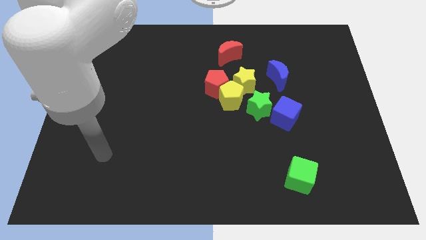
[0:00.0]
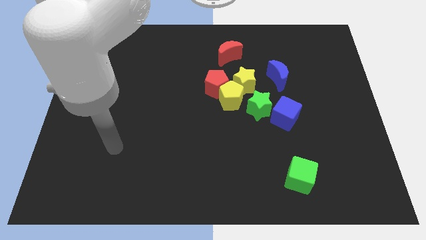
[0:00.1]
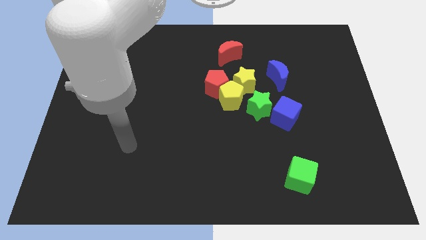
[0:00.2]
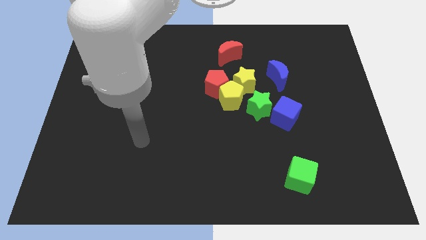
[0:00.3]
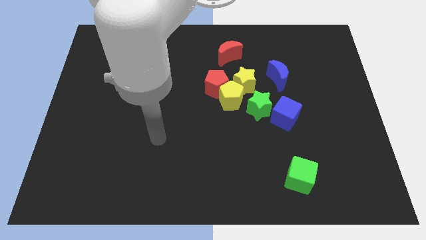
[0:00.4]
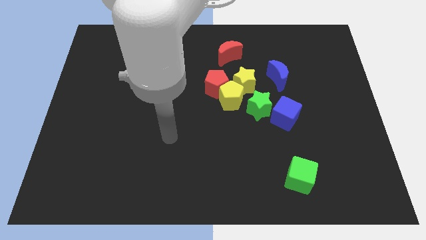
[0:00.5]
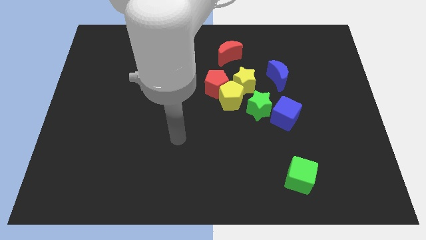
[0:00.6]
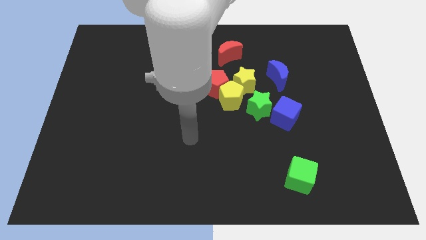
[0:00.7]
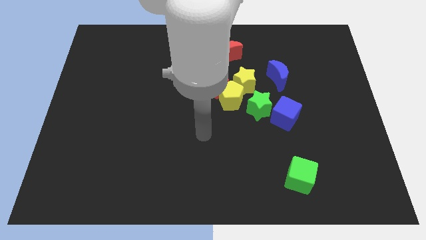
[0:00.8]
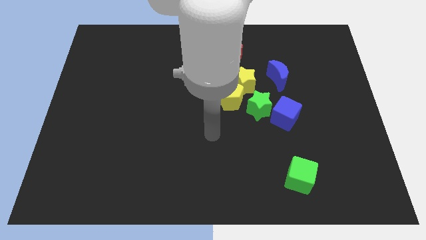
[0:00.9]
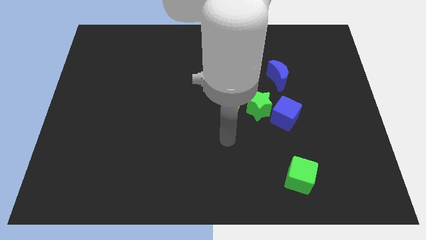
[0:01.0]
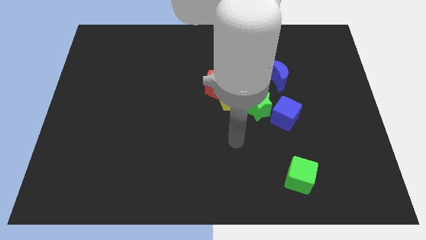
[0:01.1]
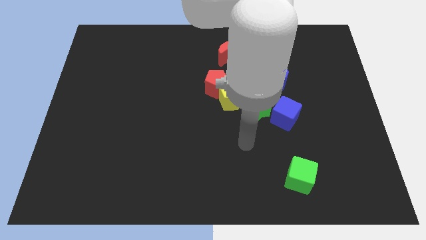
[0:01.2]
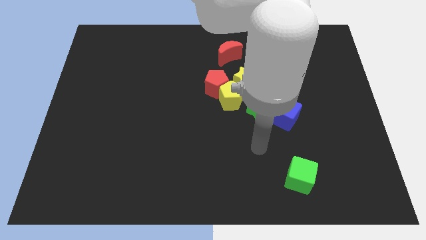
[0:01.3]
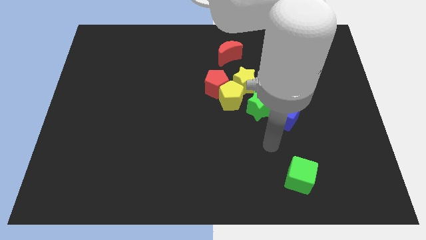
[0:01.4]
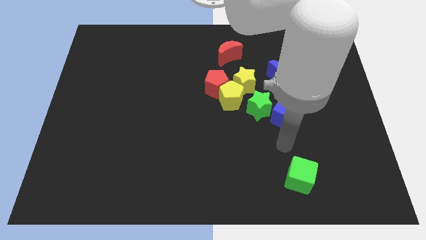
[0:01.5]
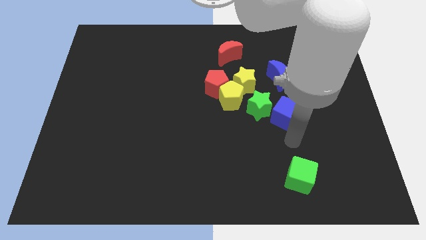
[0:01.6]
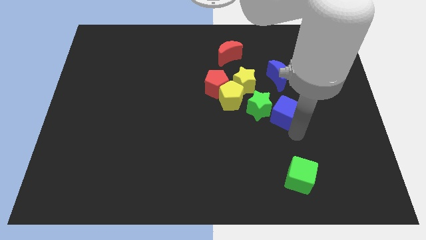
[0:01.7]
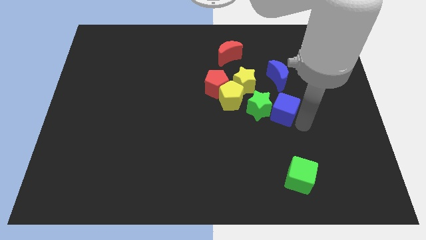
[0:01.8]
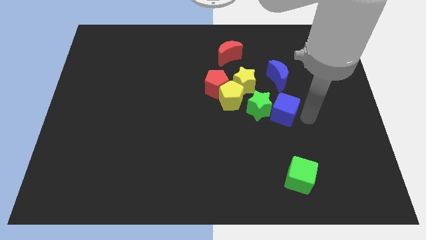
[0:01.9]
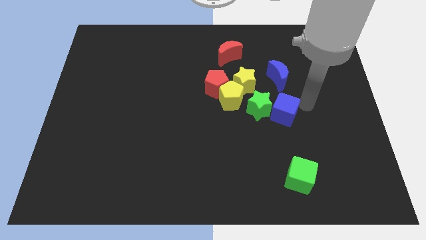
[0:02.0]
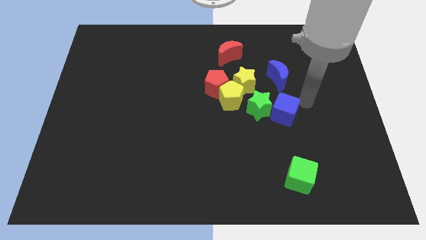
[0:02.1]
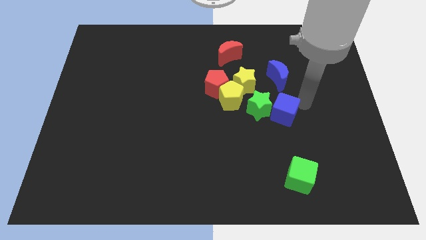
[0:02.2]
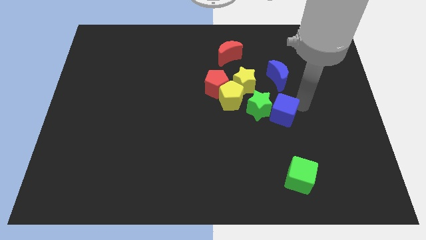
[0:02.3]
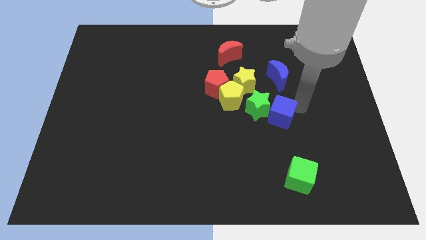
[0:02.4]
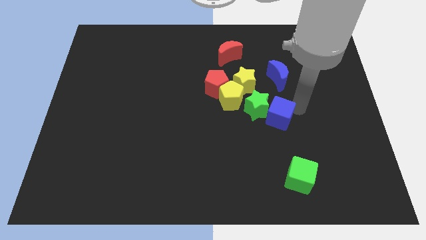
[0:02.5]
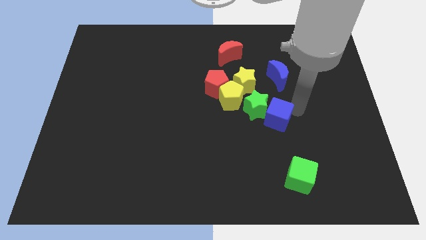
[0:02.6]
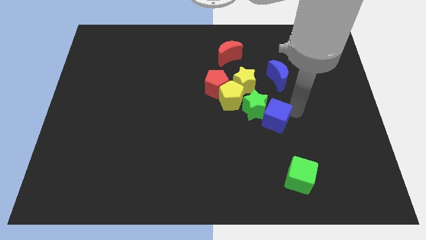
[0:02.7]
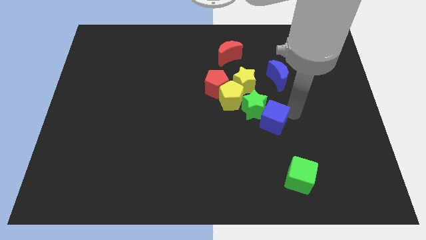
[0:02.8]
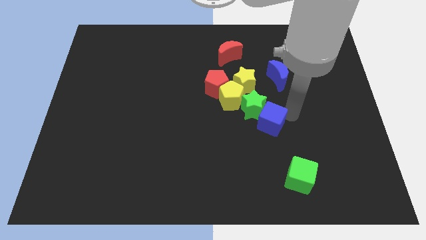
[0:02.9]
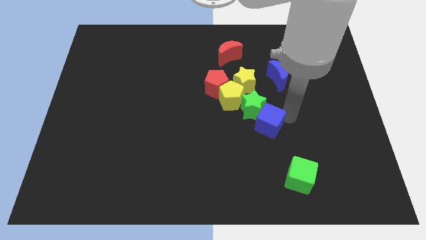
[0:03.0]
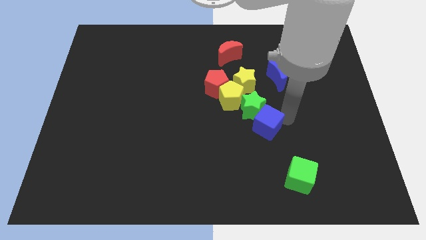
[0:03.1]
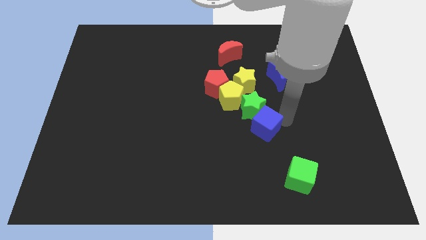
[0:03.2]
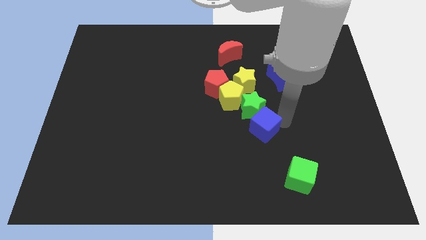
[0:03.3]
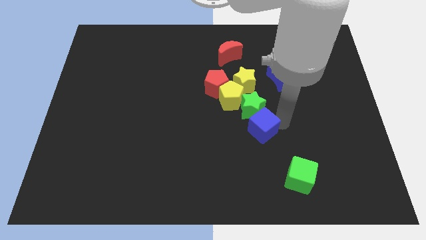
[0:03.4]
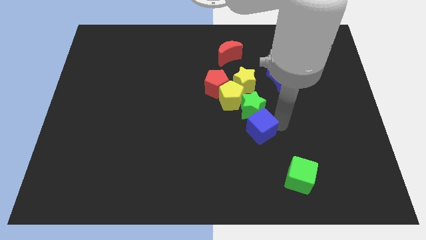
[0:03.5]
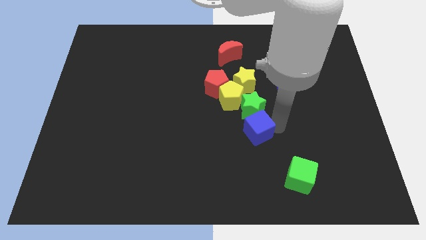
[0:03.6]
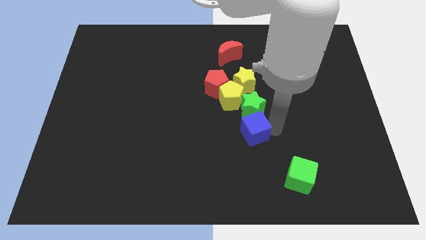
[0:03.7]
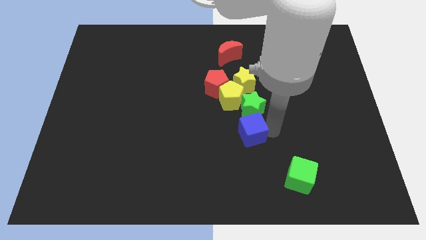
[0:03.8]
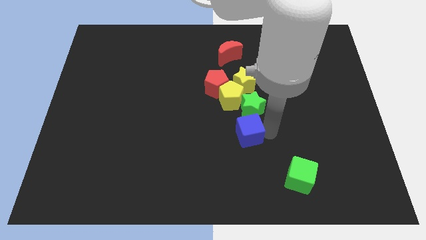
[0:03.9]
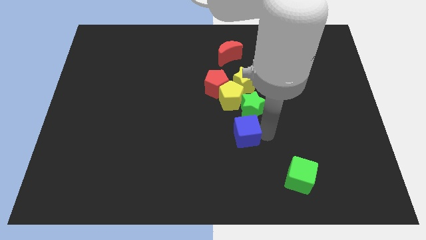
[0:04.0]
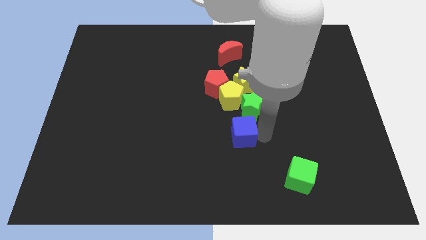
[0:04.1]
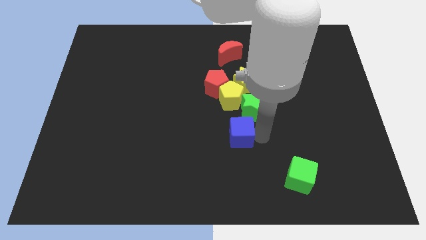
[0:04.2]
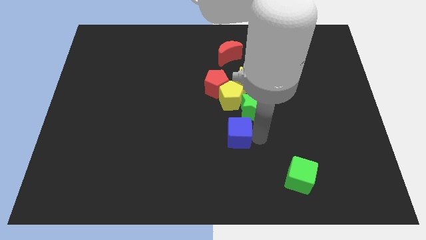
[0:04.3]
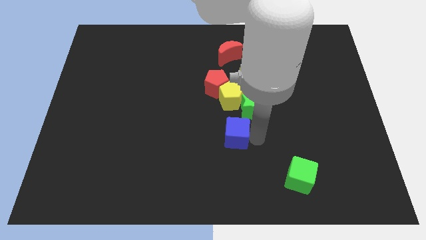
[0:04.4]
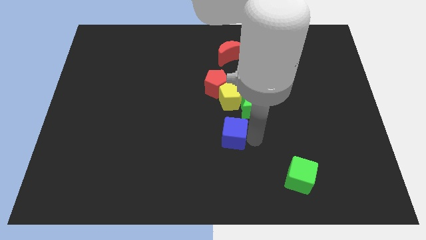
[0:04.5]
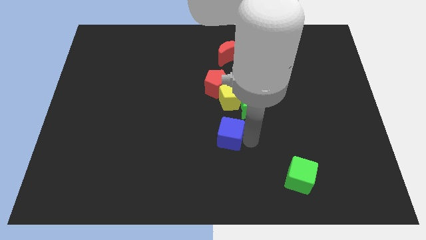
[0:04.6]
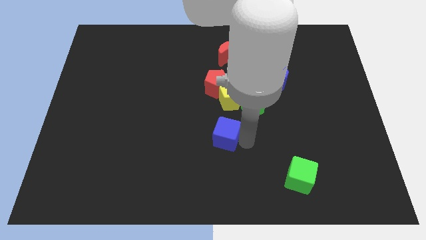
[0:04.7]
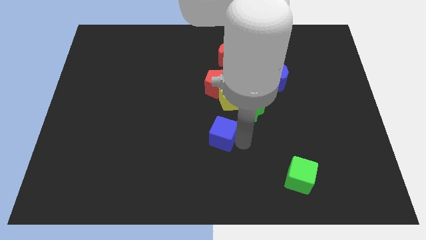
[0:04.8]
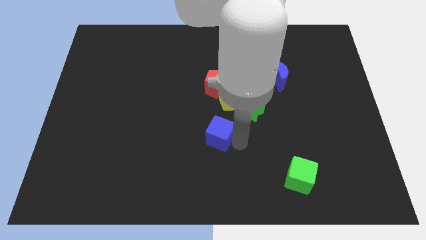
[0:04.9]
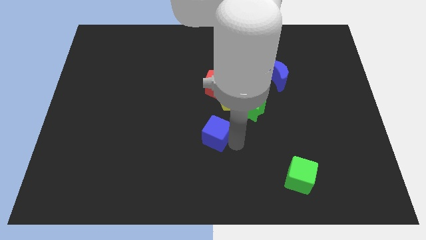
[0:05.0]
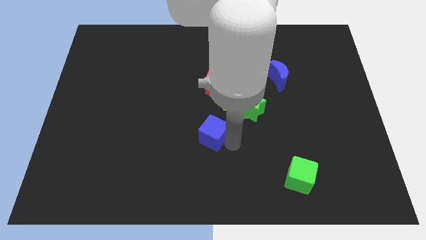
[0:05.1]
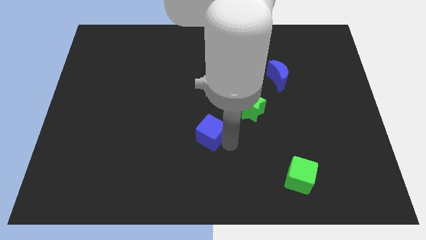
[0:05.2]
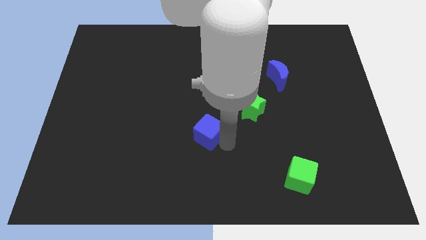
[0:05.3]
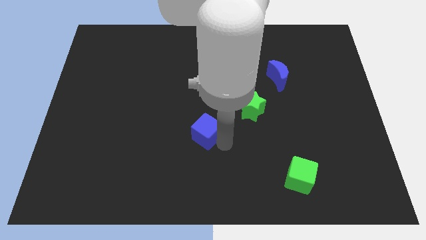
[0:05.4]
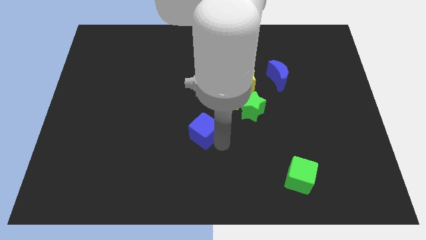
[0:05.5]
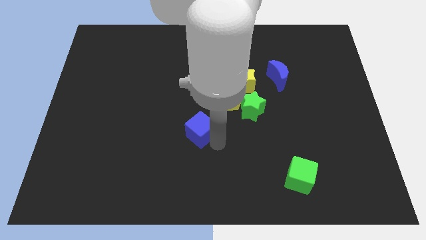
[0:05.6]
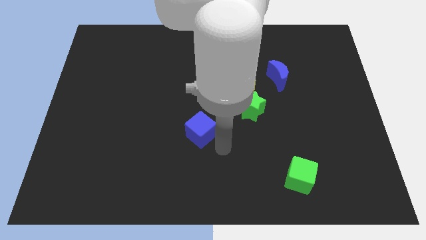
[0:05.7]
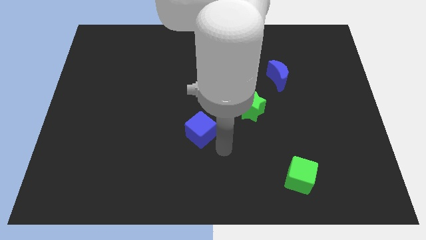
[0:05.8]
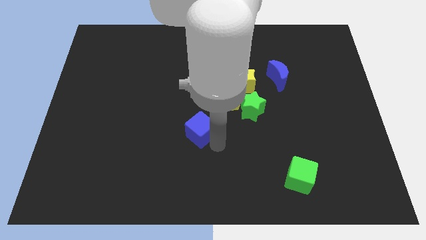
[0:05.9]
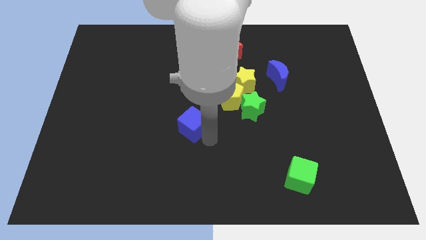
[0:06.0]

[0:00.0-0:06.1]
push the blue cube to the left

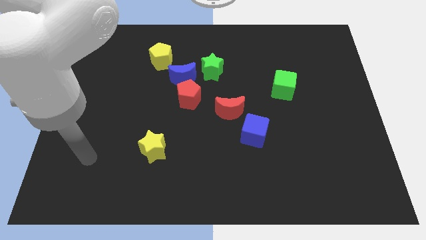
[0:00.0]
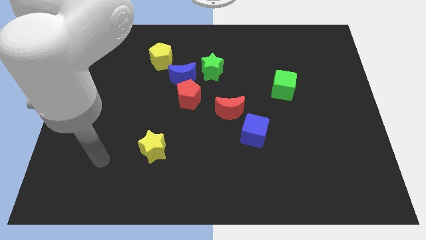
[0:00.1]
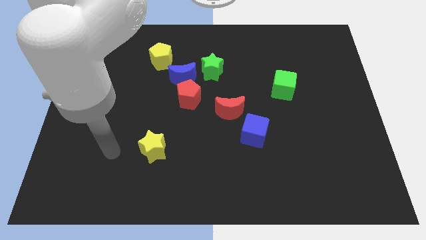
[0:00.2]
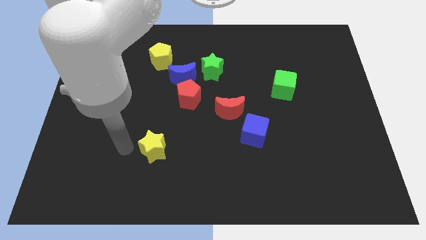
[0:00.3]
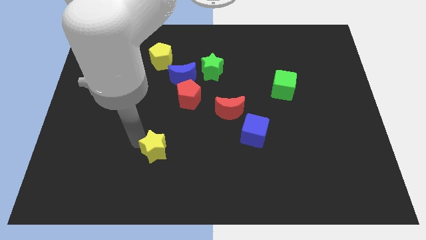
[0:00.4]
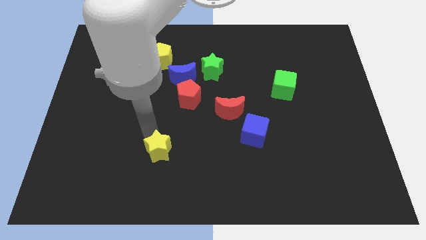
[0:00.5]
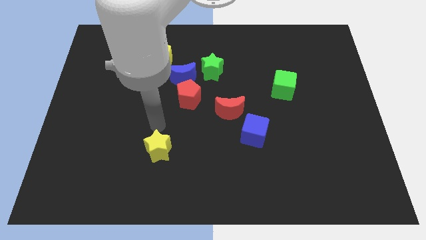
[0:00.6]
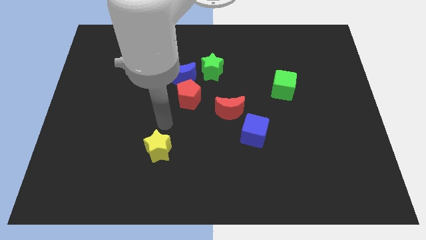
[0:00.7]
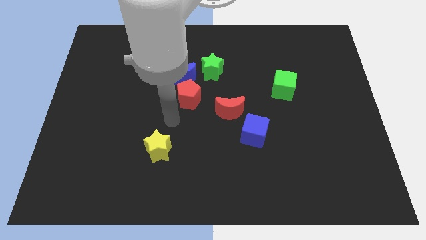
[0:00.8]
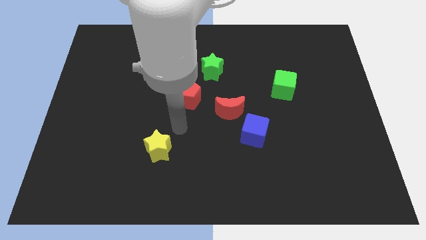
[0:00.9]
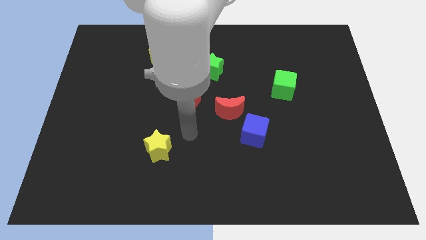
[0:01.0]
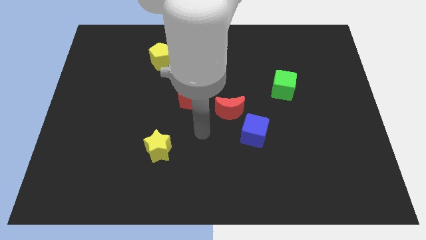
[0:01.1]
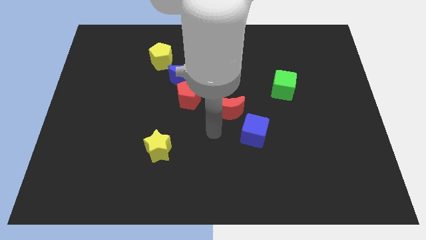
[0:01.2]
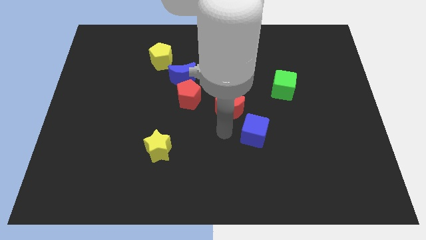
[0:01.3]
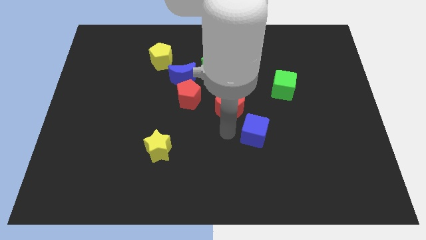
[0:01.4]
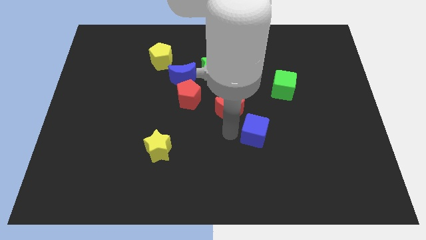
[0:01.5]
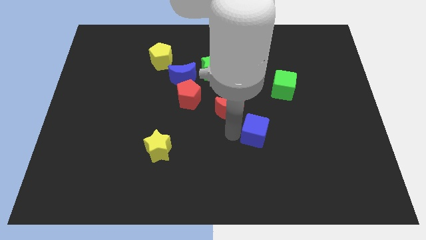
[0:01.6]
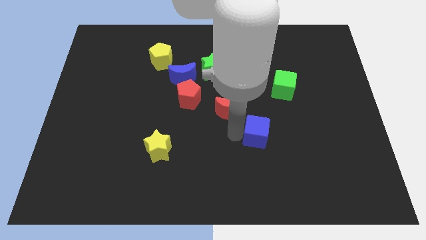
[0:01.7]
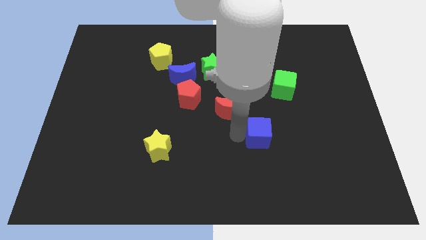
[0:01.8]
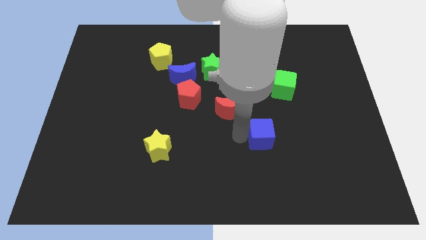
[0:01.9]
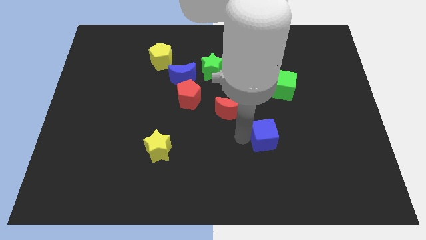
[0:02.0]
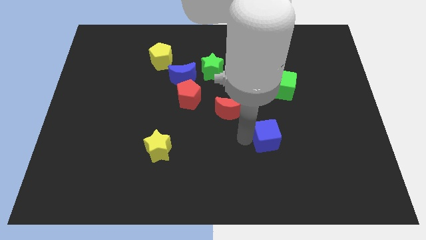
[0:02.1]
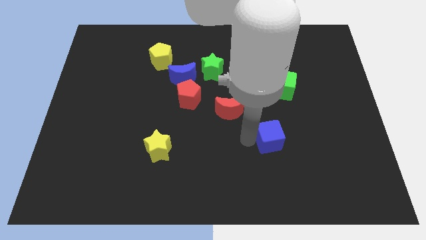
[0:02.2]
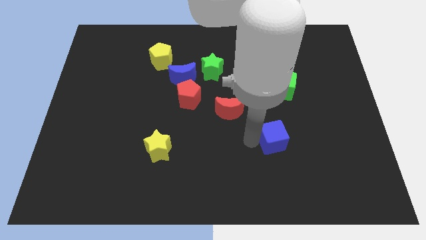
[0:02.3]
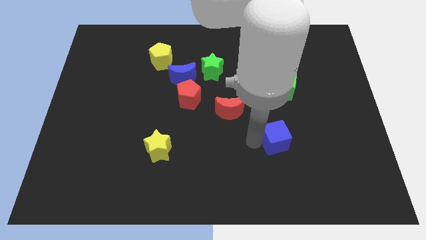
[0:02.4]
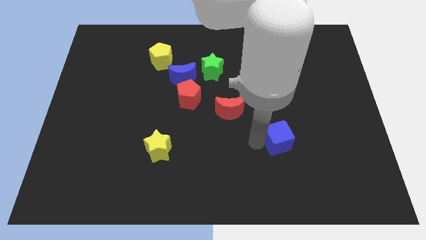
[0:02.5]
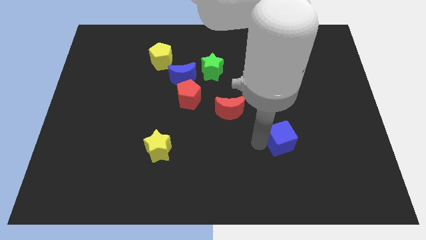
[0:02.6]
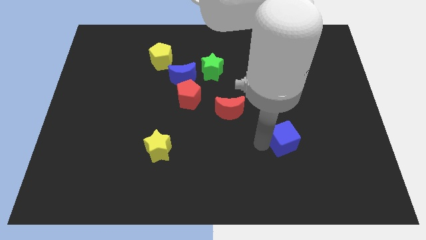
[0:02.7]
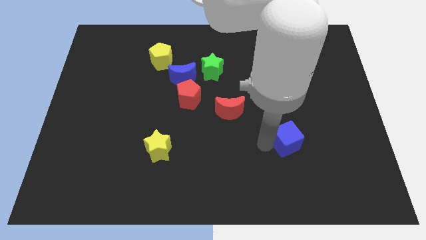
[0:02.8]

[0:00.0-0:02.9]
slightly push the blue cube right
